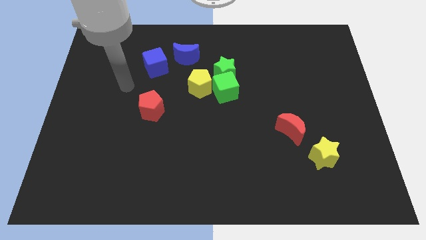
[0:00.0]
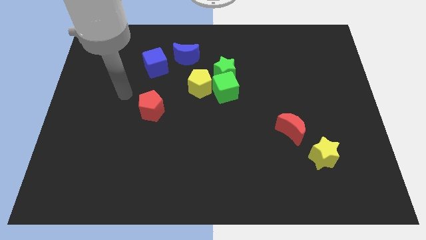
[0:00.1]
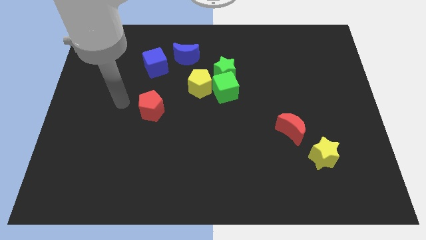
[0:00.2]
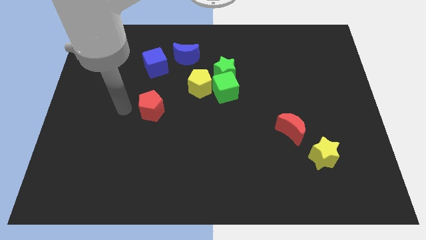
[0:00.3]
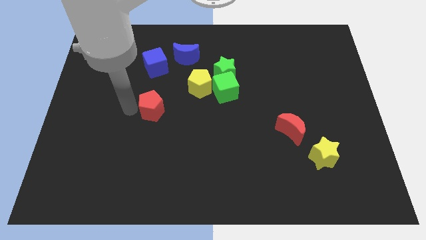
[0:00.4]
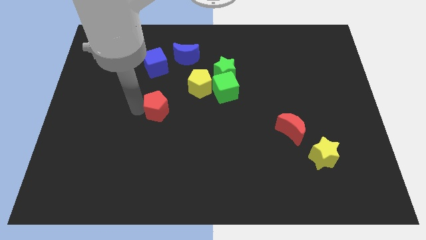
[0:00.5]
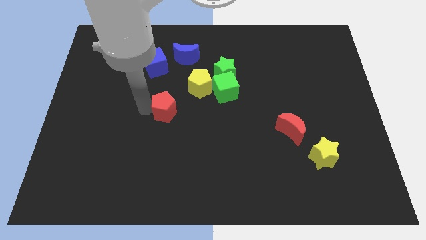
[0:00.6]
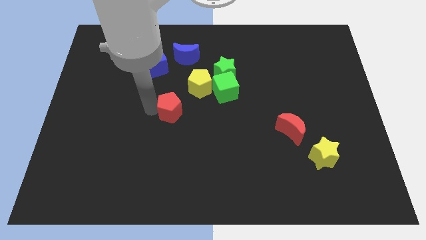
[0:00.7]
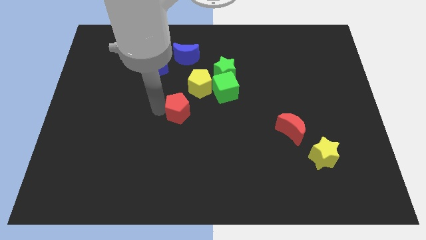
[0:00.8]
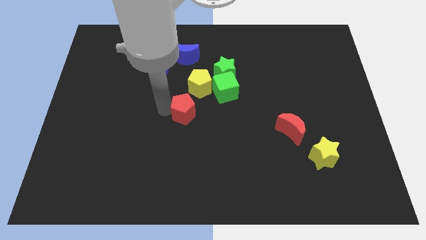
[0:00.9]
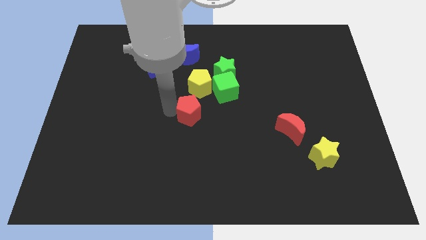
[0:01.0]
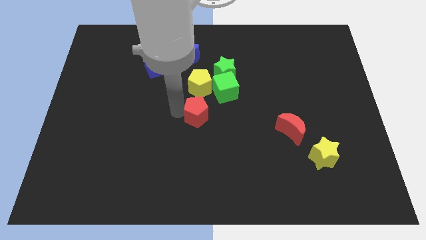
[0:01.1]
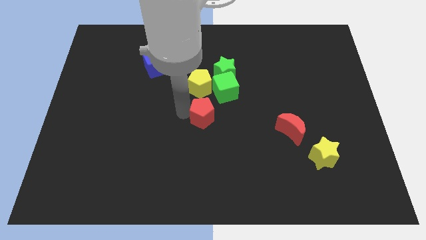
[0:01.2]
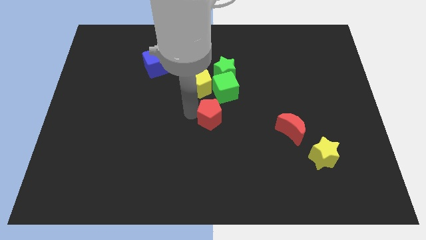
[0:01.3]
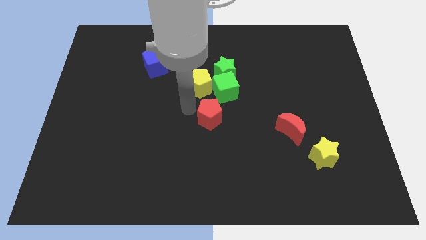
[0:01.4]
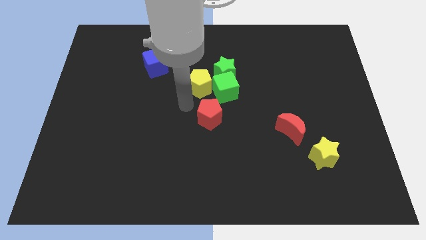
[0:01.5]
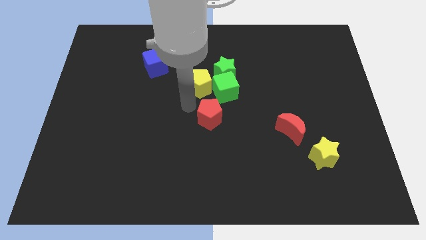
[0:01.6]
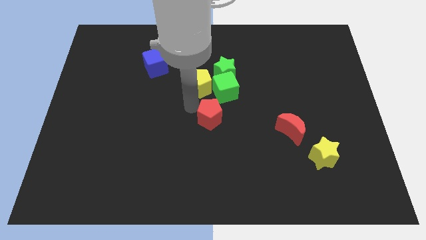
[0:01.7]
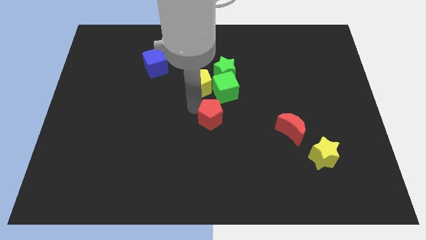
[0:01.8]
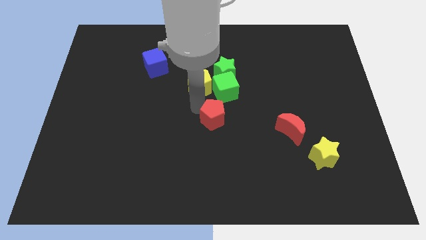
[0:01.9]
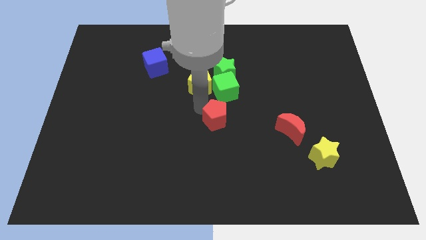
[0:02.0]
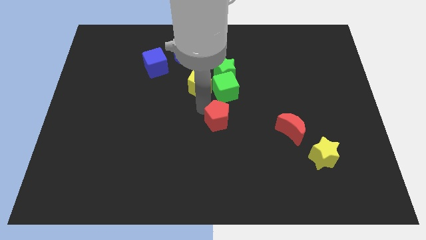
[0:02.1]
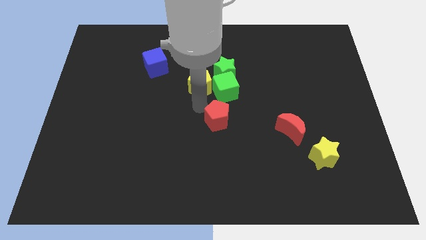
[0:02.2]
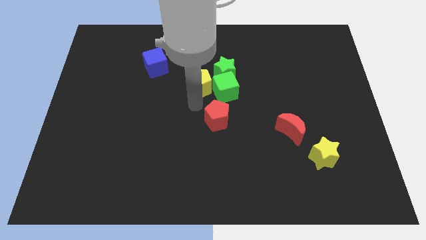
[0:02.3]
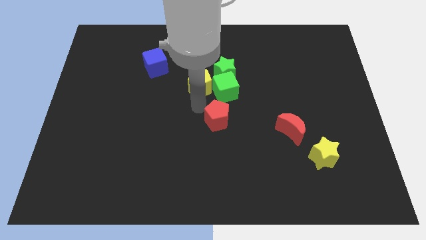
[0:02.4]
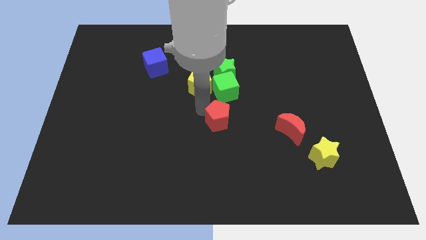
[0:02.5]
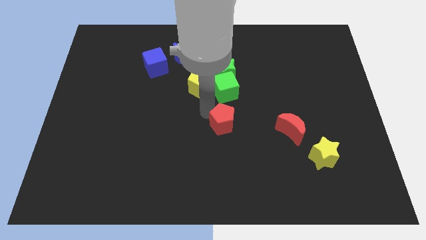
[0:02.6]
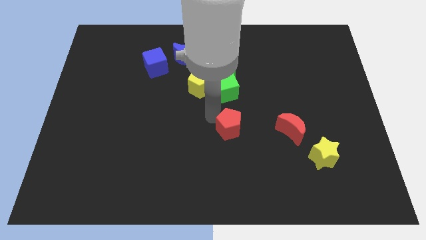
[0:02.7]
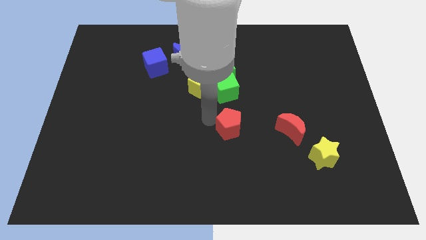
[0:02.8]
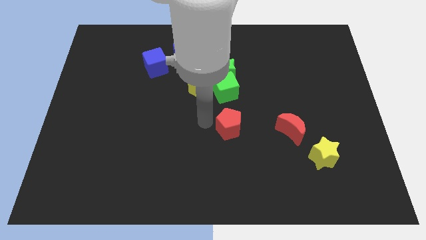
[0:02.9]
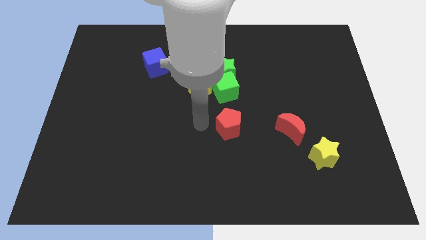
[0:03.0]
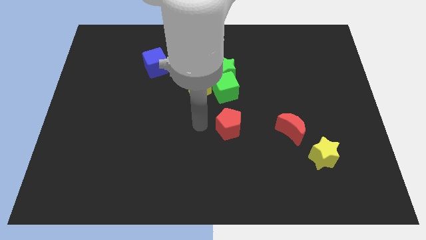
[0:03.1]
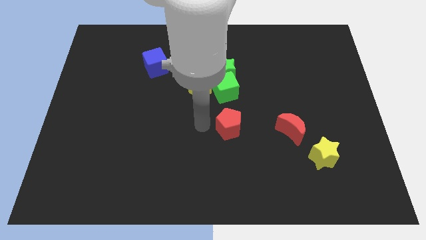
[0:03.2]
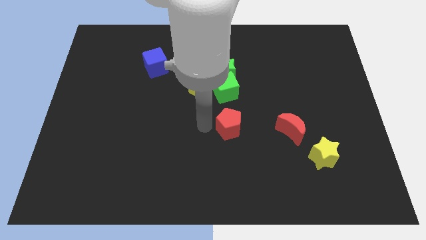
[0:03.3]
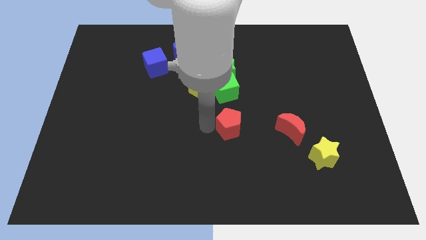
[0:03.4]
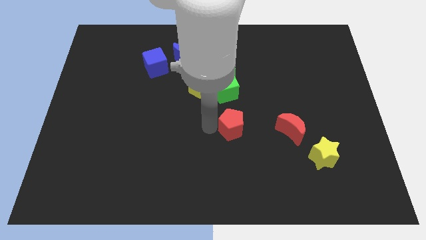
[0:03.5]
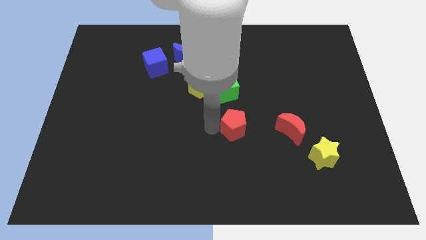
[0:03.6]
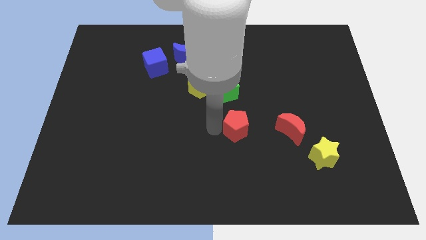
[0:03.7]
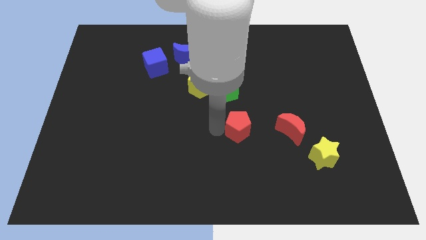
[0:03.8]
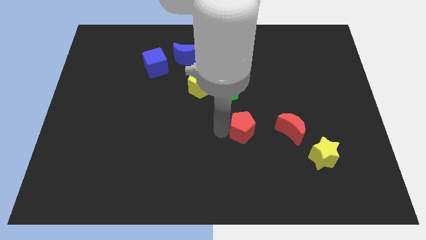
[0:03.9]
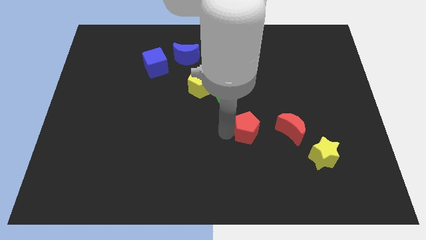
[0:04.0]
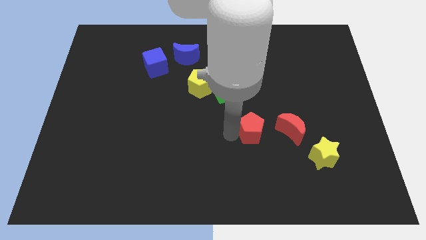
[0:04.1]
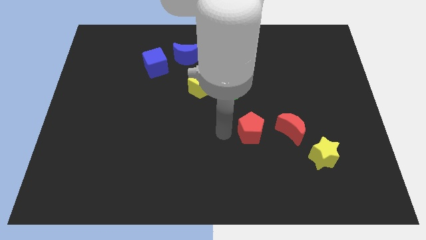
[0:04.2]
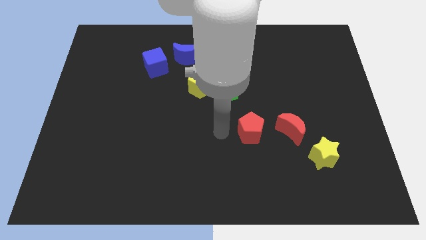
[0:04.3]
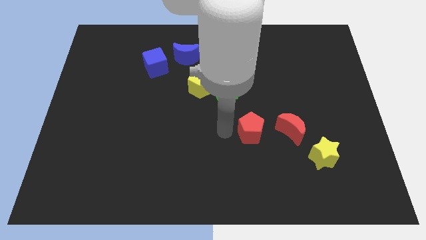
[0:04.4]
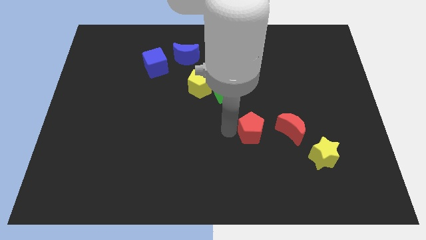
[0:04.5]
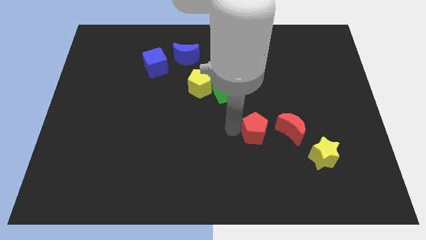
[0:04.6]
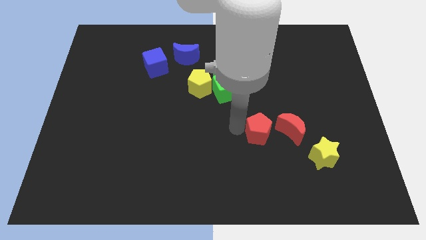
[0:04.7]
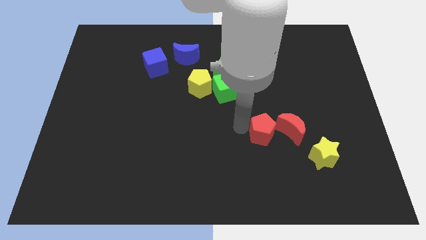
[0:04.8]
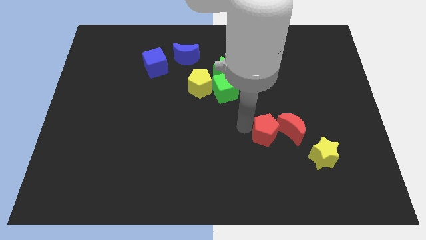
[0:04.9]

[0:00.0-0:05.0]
move the red pentagon next to the red moon

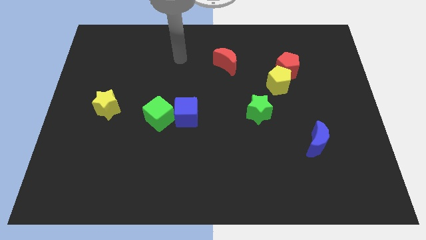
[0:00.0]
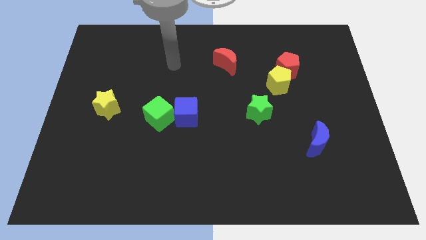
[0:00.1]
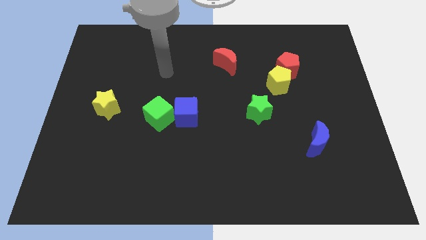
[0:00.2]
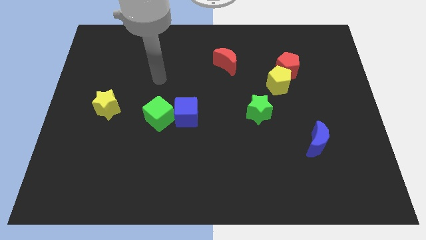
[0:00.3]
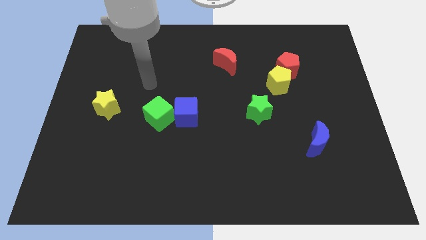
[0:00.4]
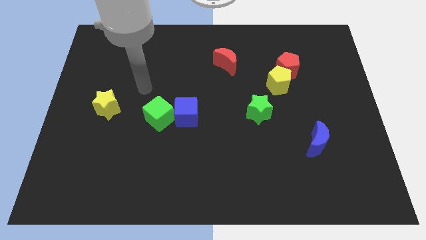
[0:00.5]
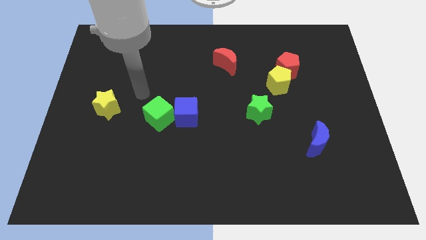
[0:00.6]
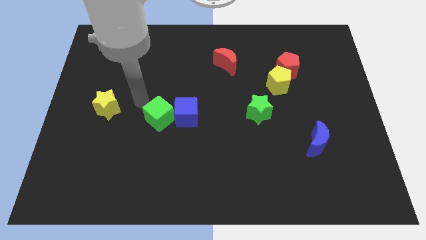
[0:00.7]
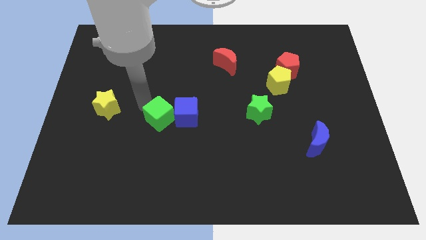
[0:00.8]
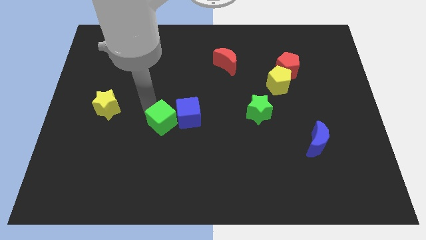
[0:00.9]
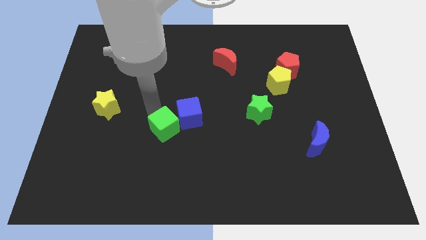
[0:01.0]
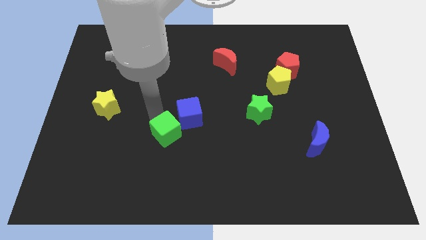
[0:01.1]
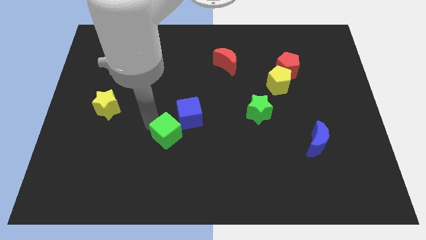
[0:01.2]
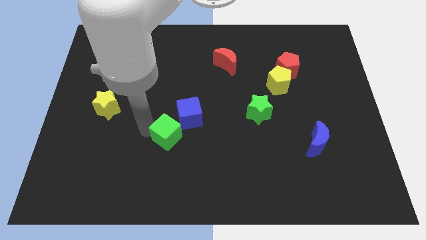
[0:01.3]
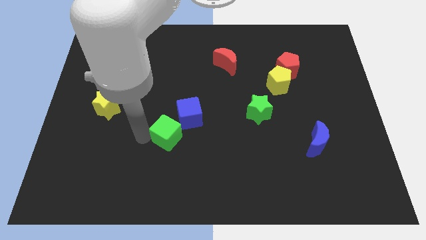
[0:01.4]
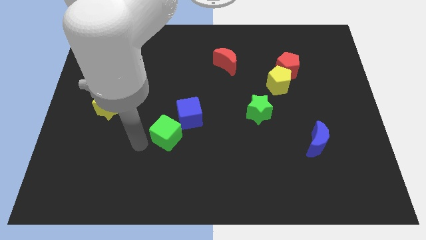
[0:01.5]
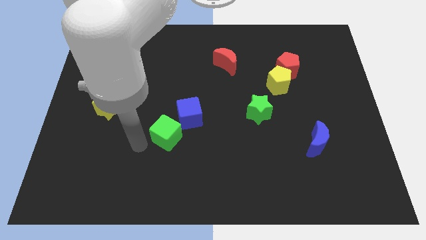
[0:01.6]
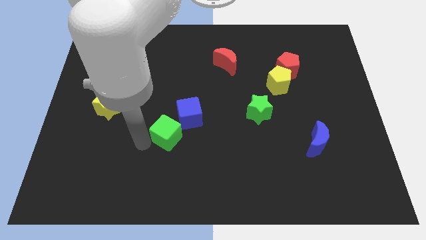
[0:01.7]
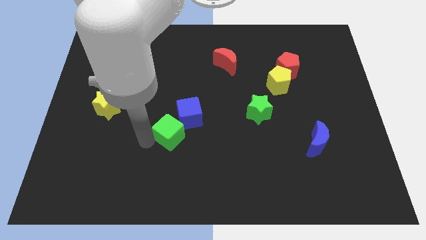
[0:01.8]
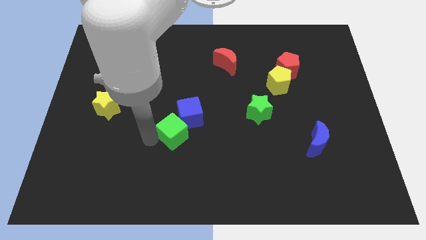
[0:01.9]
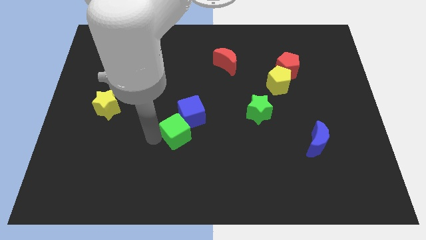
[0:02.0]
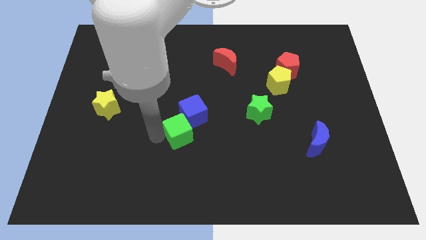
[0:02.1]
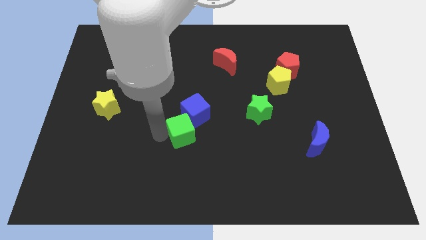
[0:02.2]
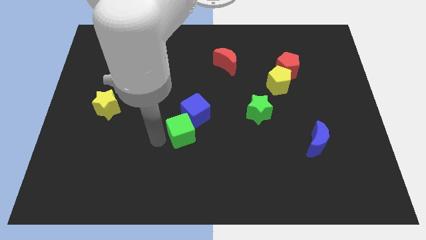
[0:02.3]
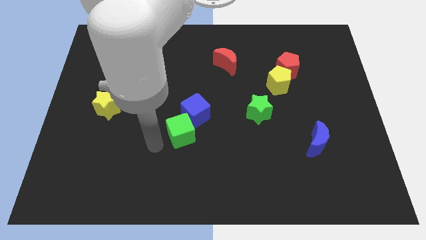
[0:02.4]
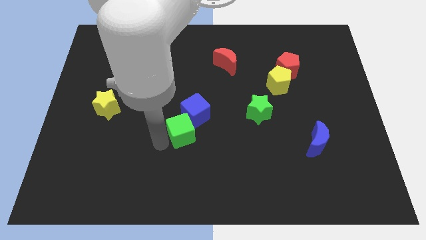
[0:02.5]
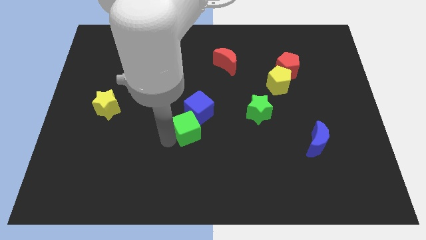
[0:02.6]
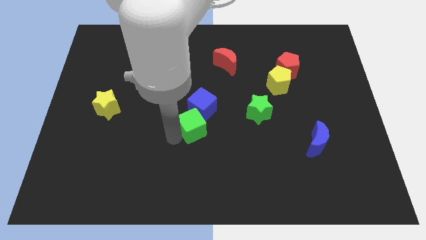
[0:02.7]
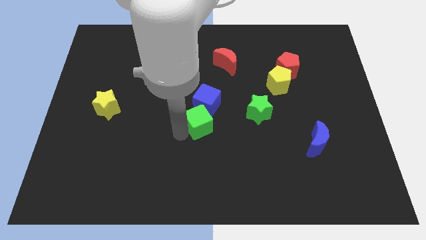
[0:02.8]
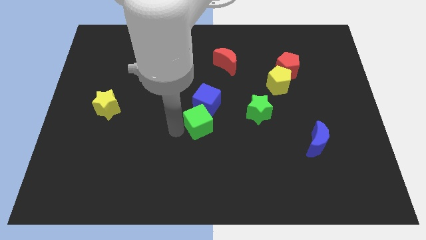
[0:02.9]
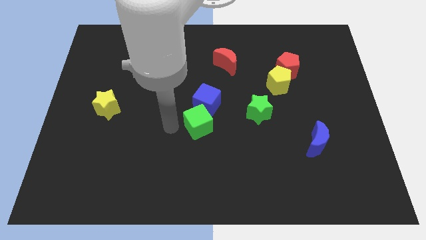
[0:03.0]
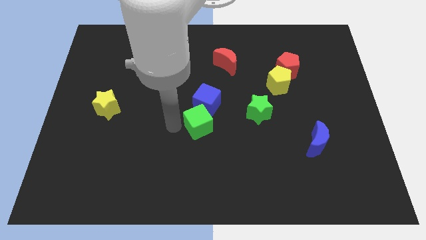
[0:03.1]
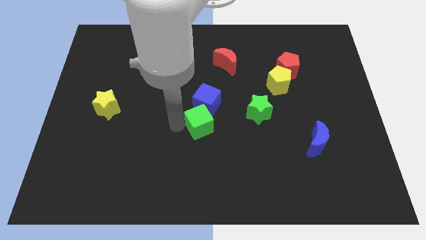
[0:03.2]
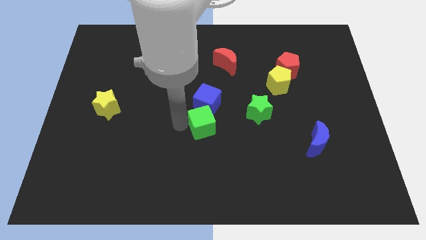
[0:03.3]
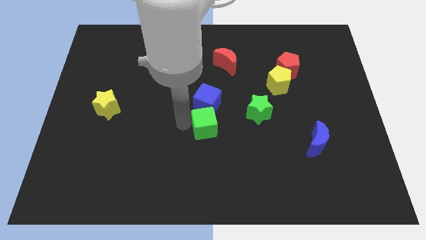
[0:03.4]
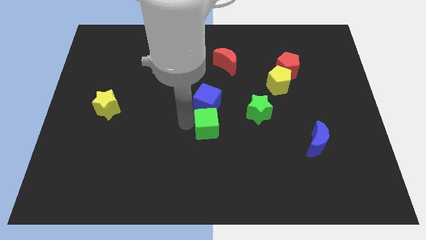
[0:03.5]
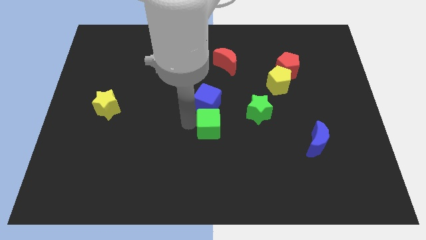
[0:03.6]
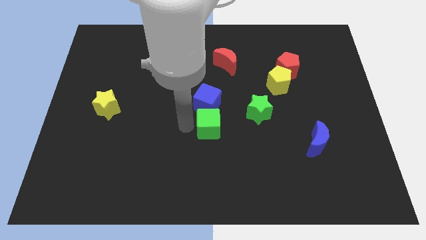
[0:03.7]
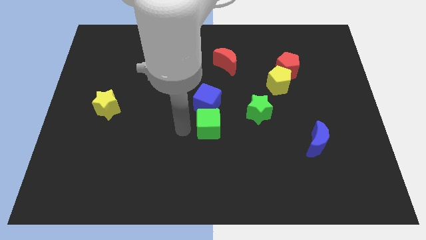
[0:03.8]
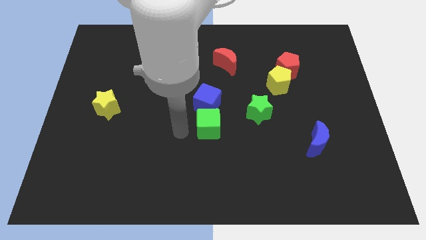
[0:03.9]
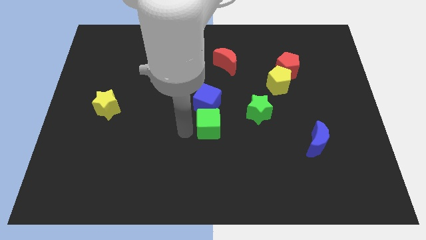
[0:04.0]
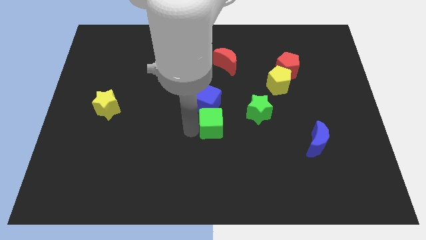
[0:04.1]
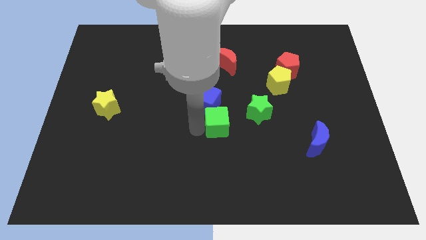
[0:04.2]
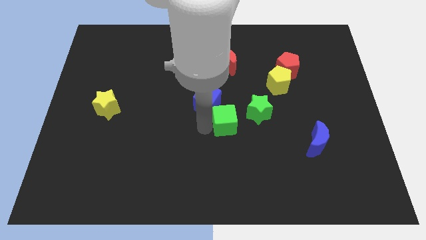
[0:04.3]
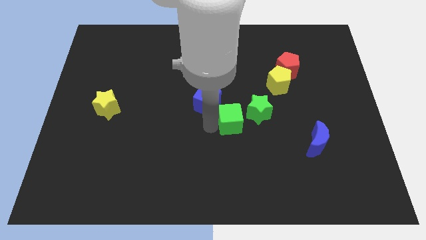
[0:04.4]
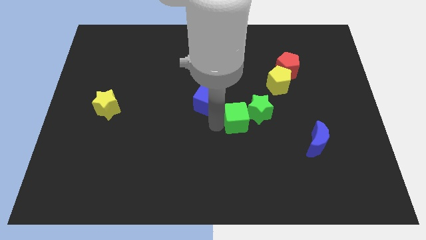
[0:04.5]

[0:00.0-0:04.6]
put the green cube towards the green star
